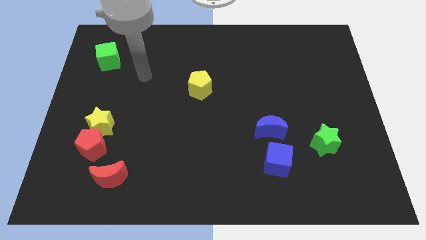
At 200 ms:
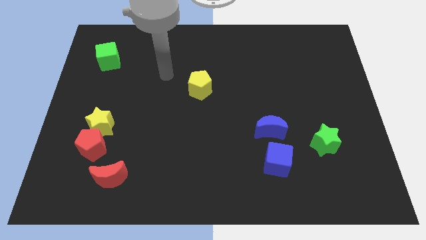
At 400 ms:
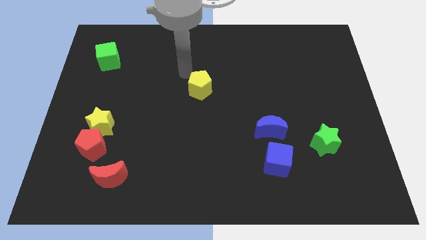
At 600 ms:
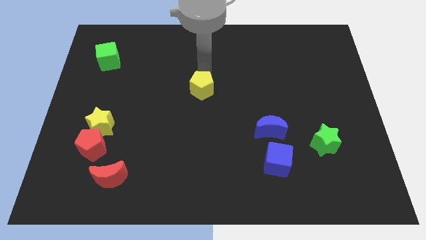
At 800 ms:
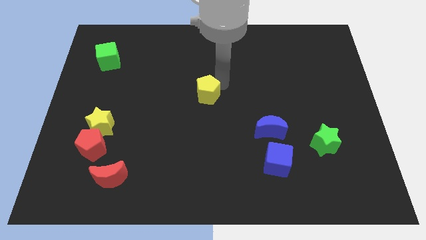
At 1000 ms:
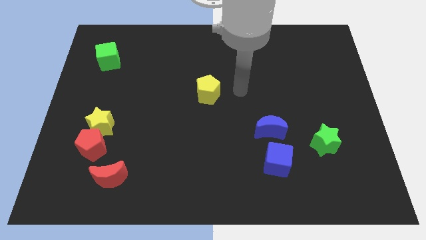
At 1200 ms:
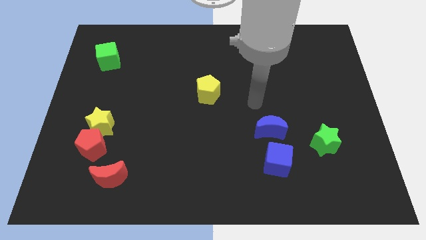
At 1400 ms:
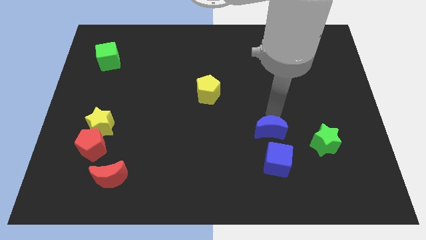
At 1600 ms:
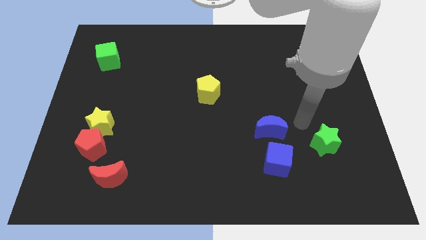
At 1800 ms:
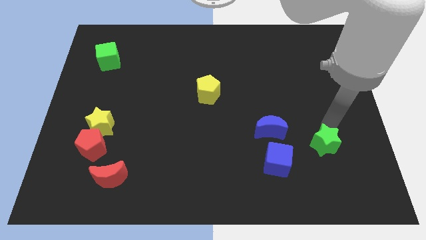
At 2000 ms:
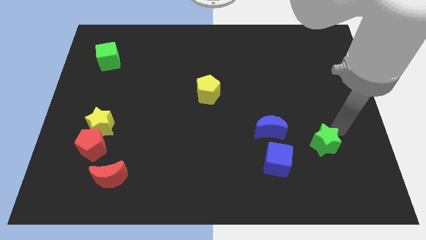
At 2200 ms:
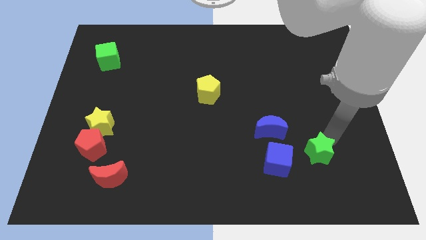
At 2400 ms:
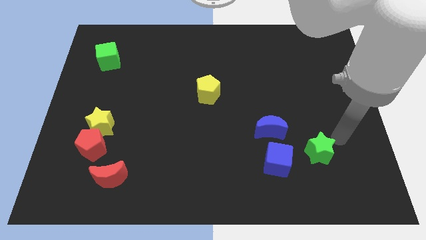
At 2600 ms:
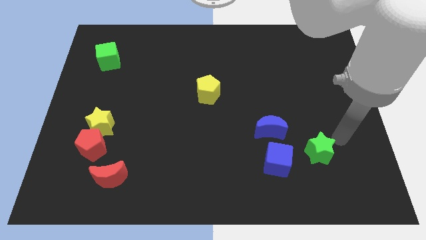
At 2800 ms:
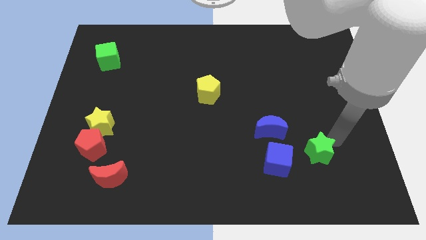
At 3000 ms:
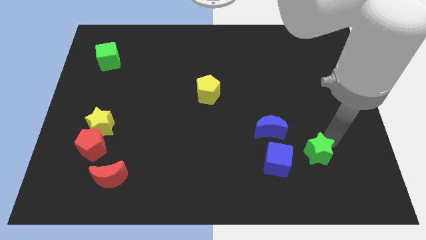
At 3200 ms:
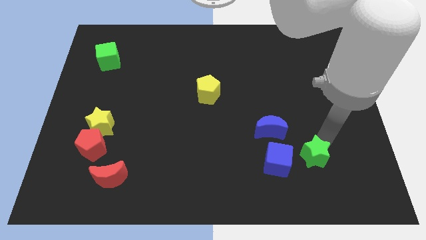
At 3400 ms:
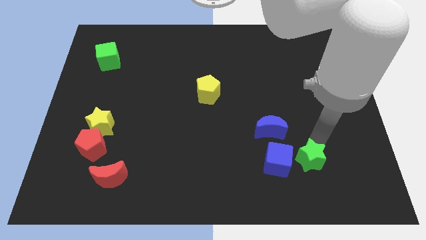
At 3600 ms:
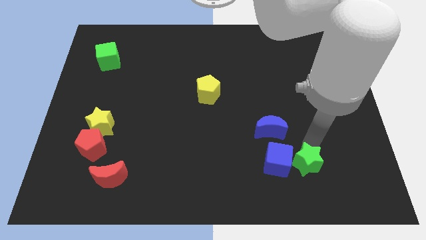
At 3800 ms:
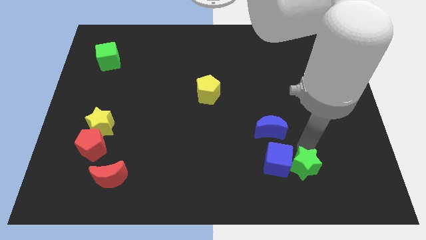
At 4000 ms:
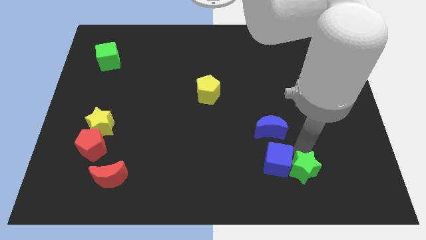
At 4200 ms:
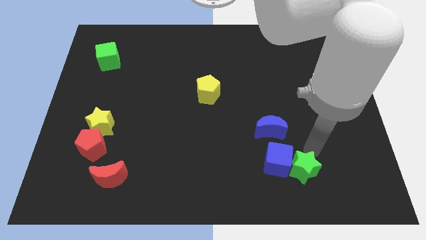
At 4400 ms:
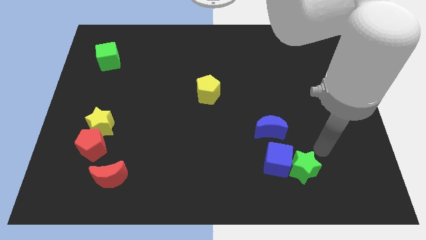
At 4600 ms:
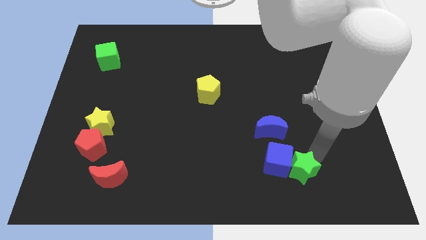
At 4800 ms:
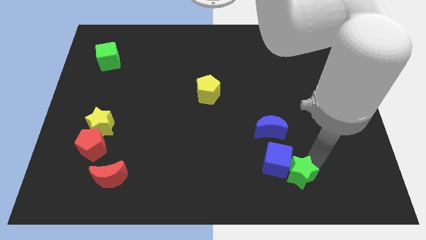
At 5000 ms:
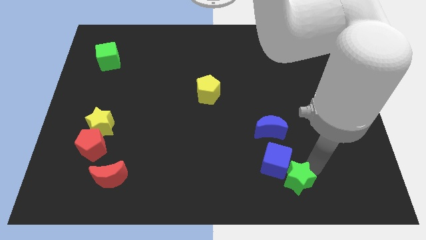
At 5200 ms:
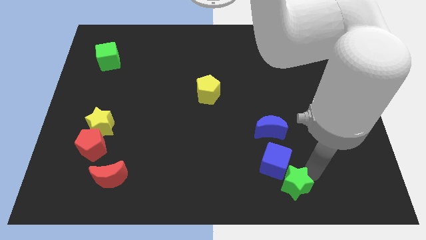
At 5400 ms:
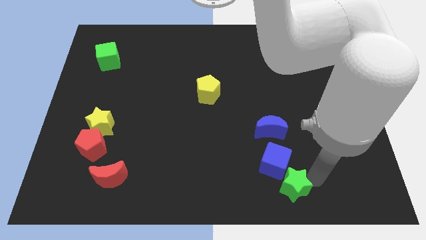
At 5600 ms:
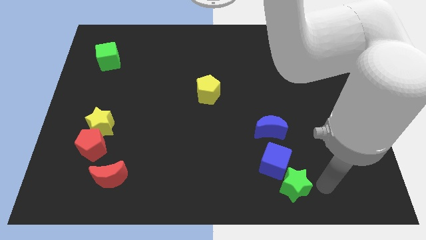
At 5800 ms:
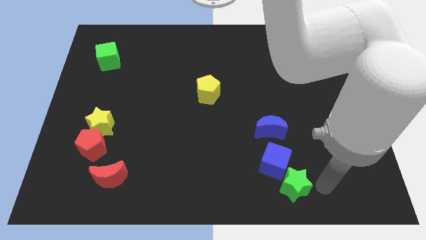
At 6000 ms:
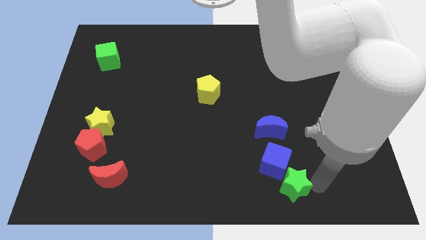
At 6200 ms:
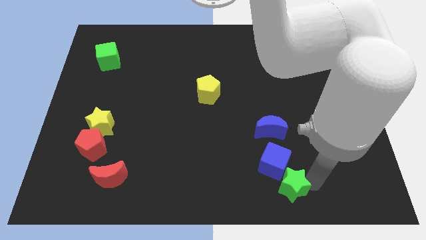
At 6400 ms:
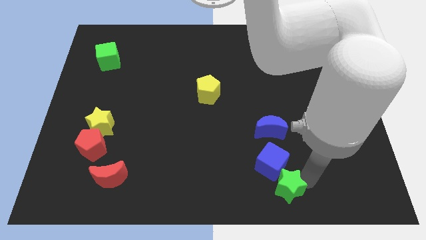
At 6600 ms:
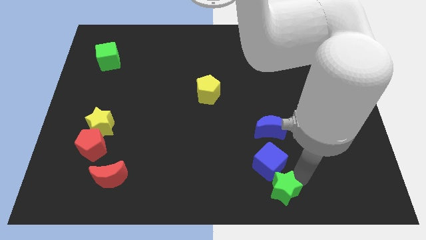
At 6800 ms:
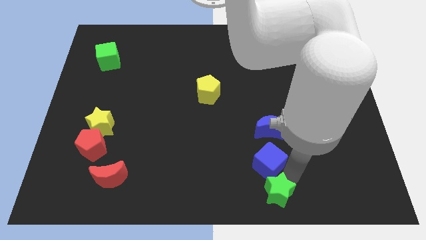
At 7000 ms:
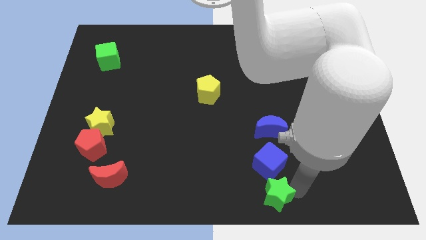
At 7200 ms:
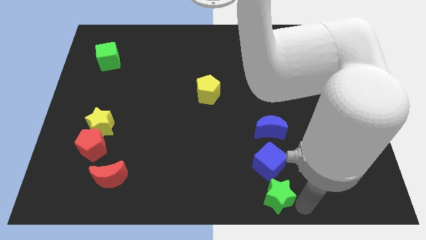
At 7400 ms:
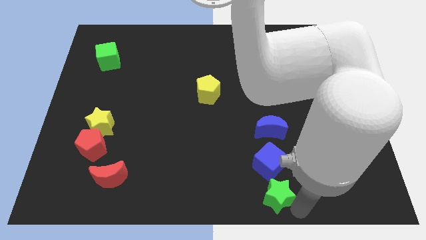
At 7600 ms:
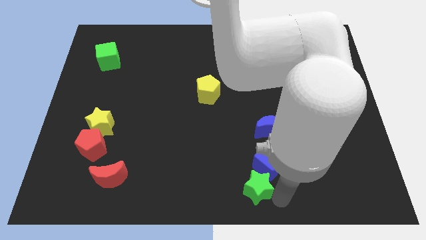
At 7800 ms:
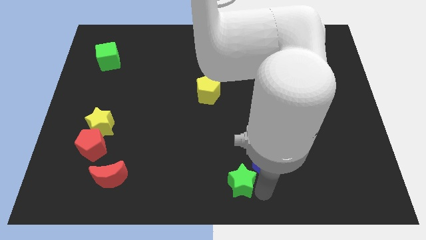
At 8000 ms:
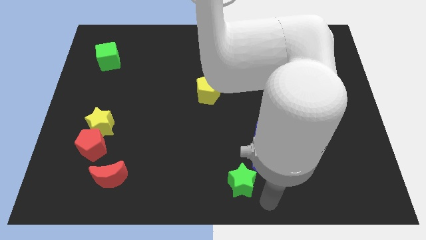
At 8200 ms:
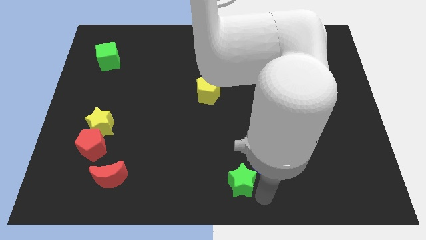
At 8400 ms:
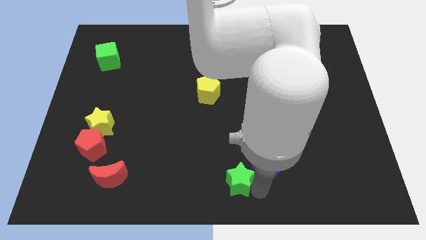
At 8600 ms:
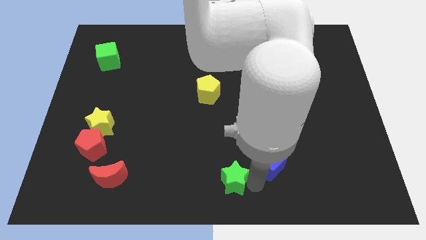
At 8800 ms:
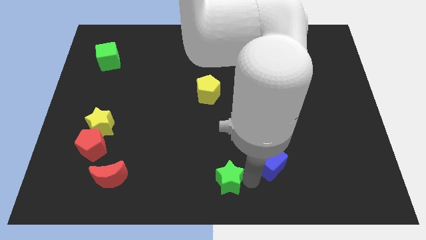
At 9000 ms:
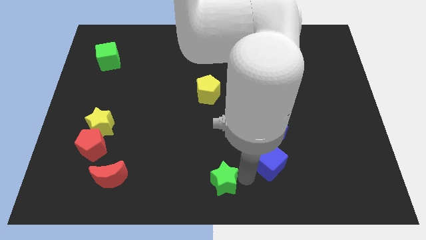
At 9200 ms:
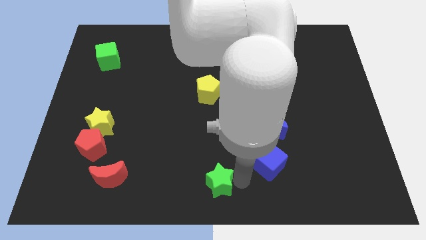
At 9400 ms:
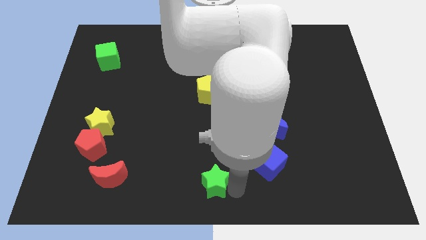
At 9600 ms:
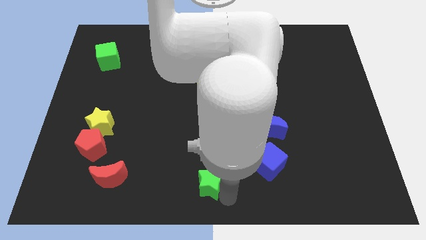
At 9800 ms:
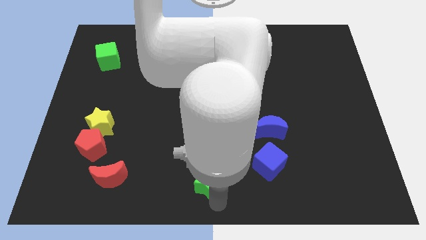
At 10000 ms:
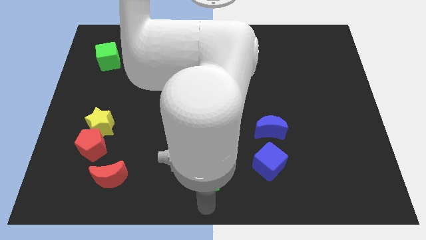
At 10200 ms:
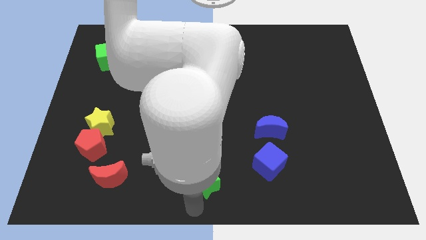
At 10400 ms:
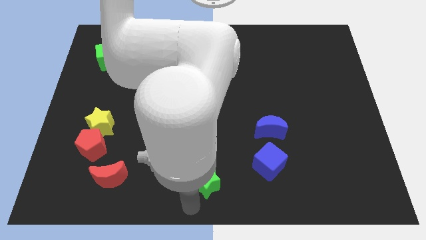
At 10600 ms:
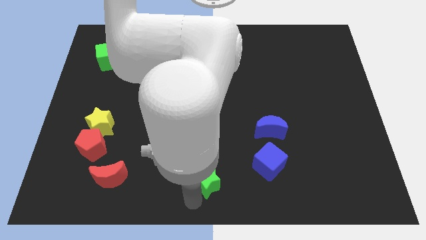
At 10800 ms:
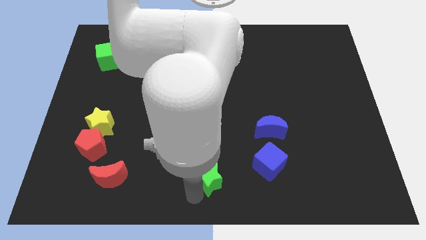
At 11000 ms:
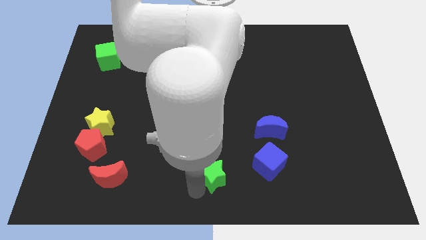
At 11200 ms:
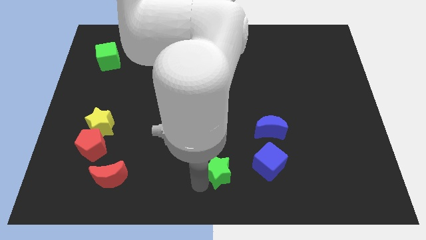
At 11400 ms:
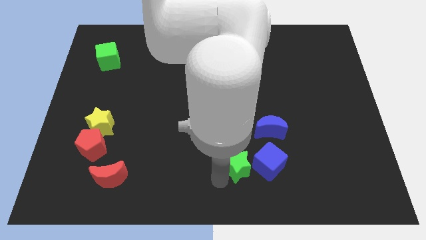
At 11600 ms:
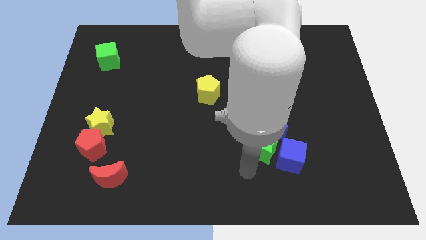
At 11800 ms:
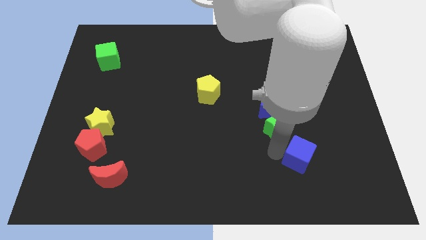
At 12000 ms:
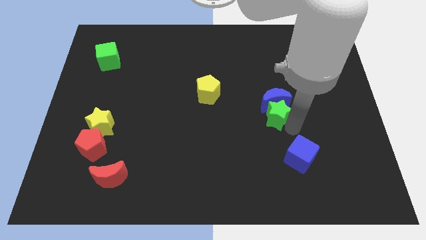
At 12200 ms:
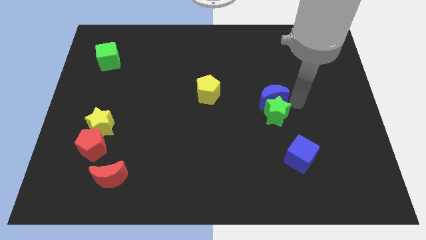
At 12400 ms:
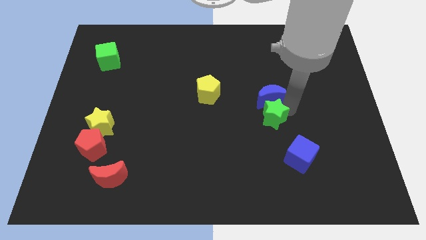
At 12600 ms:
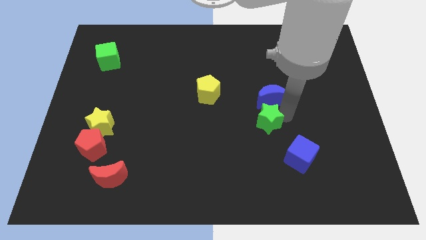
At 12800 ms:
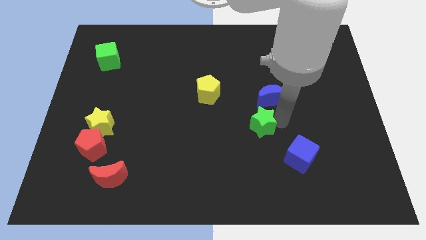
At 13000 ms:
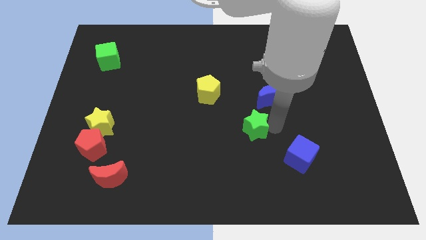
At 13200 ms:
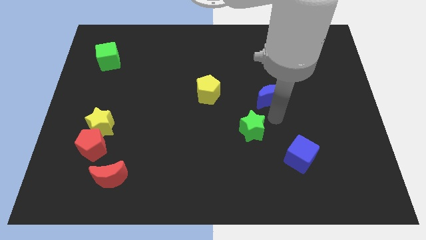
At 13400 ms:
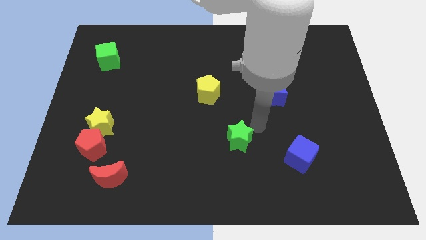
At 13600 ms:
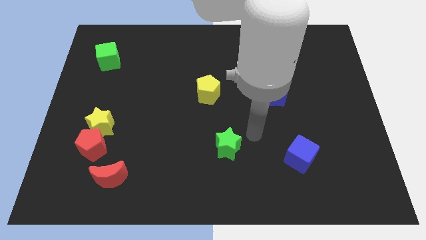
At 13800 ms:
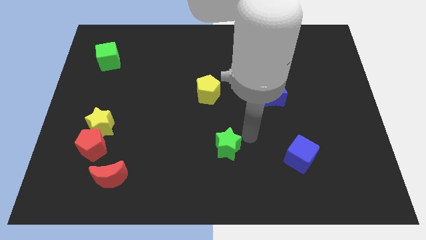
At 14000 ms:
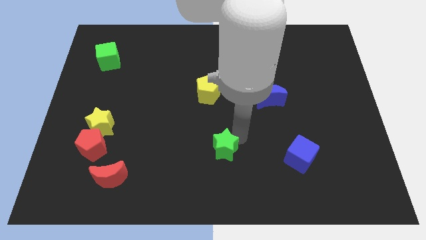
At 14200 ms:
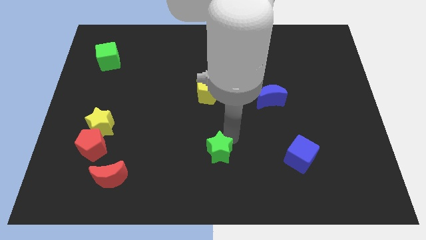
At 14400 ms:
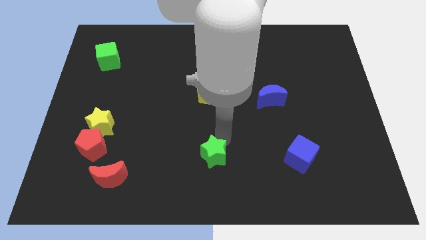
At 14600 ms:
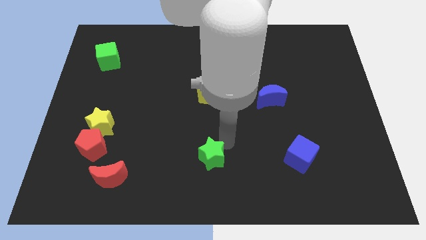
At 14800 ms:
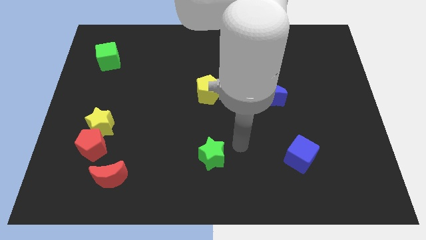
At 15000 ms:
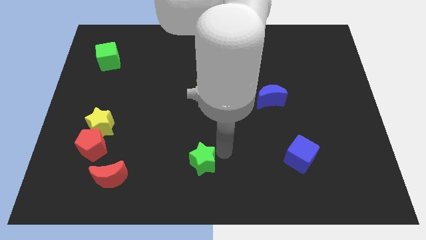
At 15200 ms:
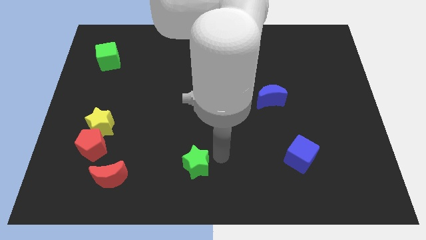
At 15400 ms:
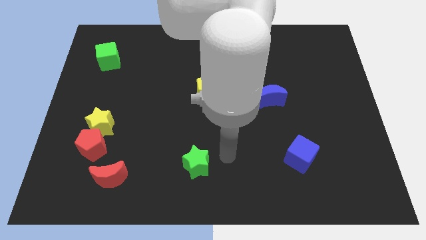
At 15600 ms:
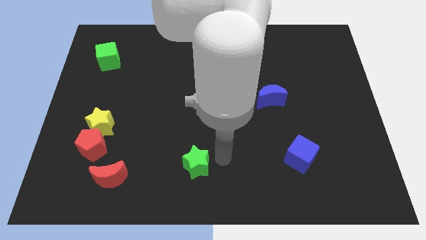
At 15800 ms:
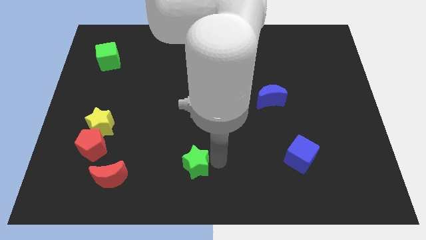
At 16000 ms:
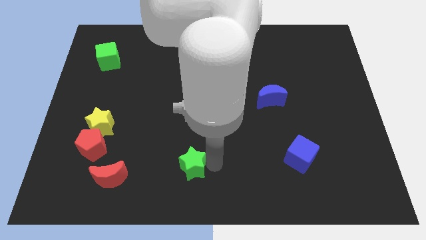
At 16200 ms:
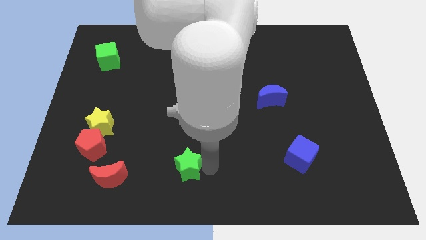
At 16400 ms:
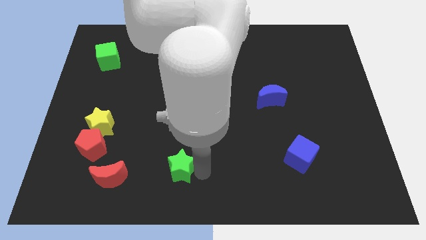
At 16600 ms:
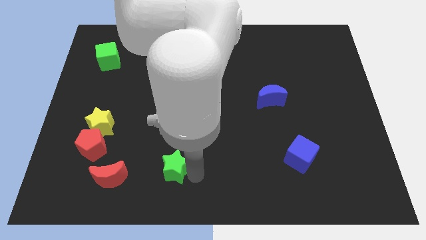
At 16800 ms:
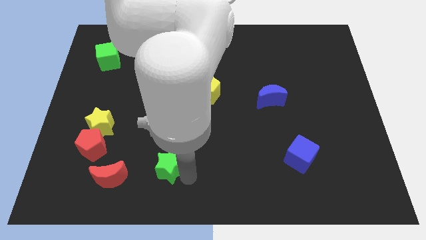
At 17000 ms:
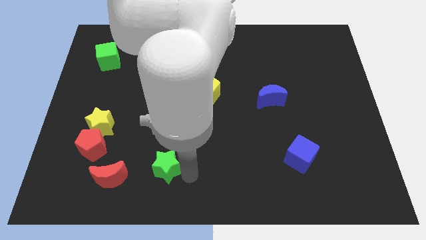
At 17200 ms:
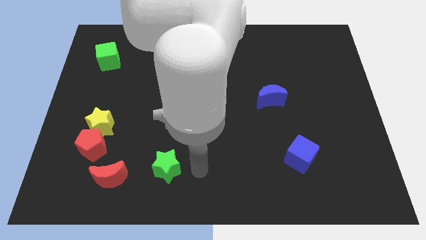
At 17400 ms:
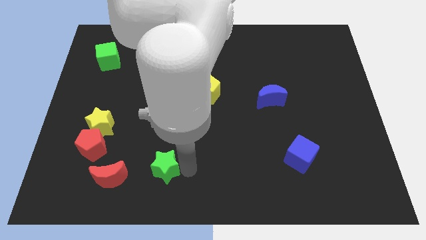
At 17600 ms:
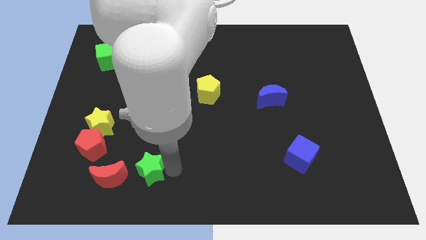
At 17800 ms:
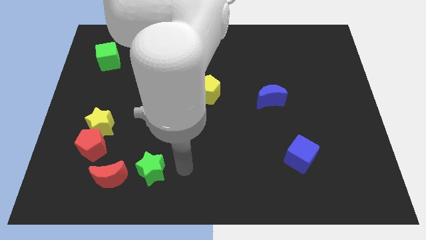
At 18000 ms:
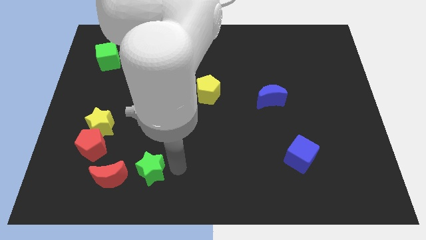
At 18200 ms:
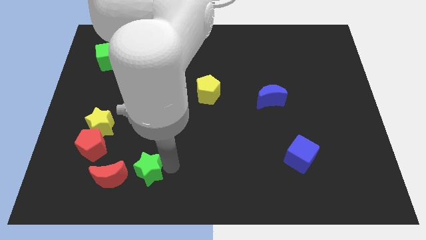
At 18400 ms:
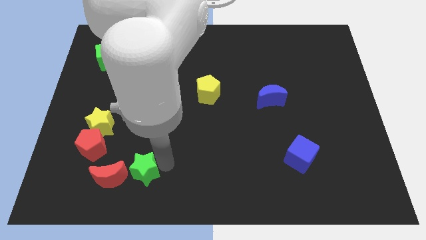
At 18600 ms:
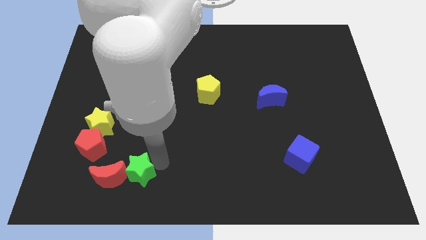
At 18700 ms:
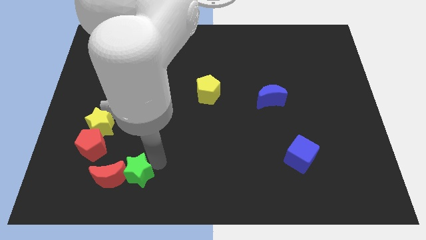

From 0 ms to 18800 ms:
put the green star towards the red moon
